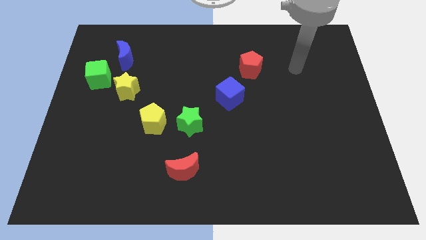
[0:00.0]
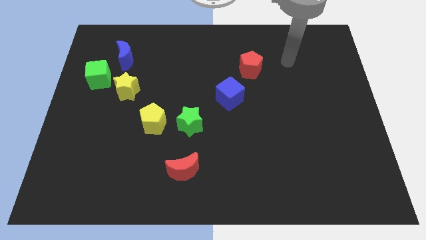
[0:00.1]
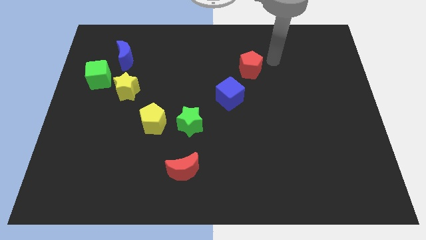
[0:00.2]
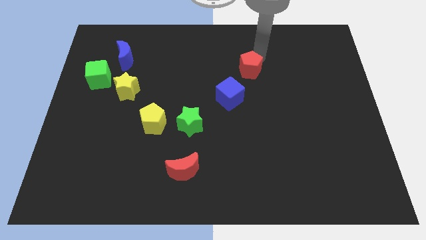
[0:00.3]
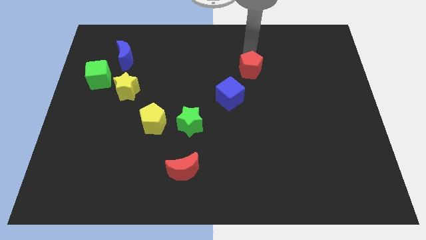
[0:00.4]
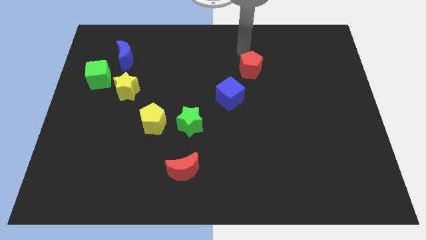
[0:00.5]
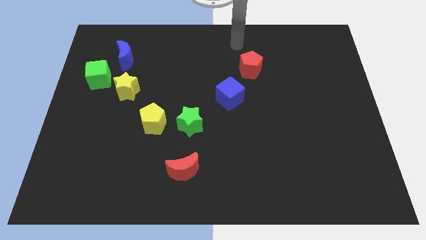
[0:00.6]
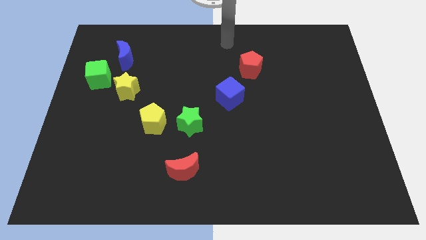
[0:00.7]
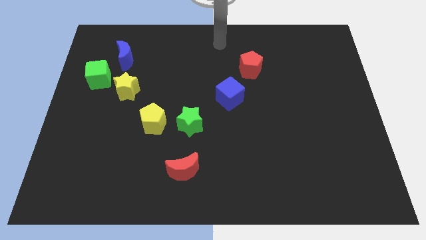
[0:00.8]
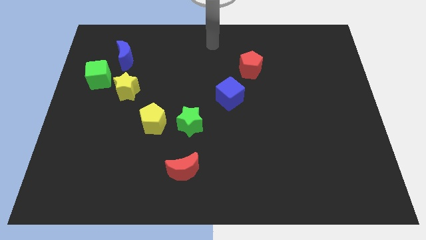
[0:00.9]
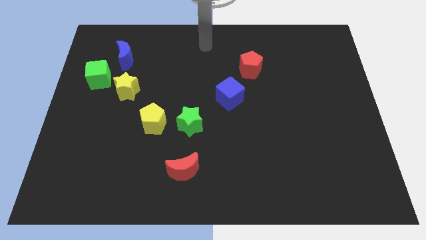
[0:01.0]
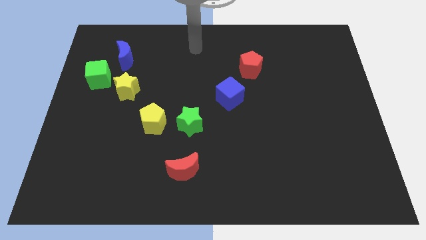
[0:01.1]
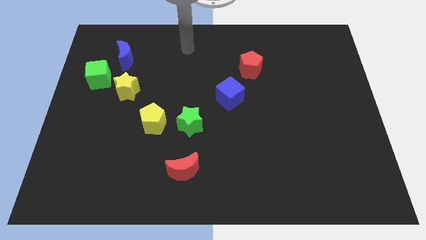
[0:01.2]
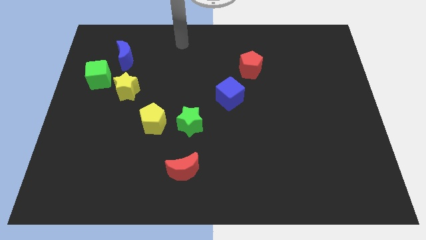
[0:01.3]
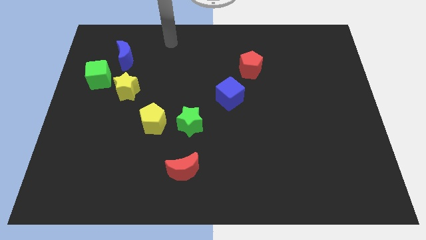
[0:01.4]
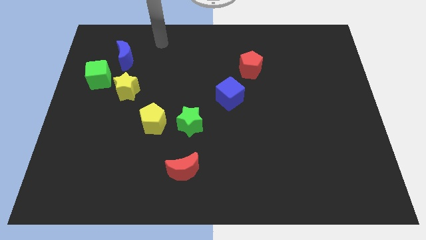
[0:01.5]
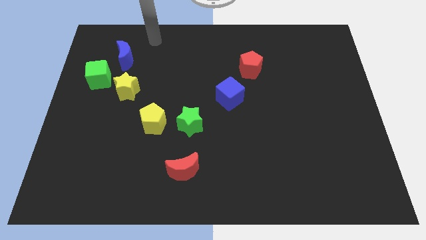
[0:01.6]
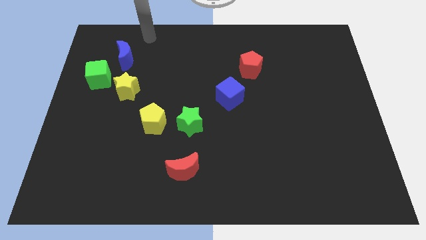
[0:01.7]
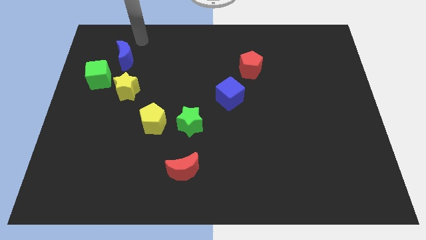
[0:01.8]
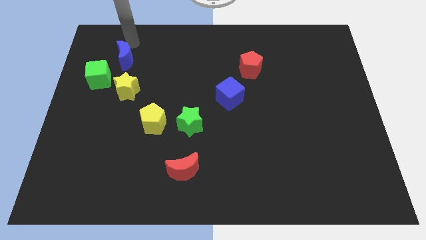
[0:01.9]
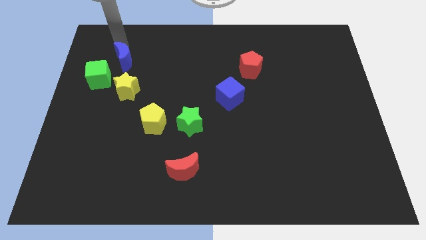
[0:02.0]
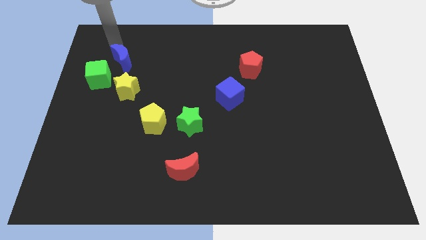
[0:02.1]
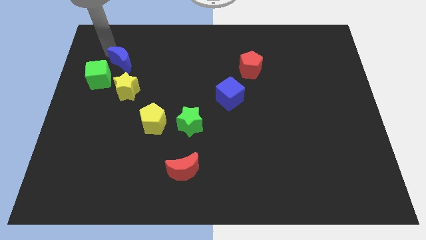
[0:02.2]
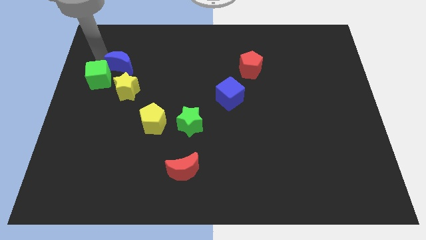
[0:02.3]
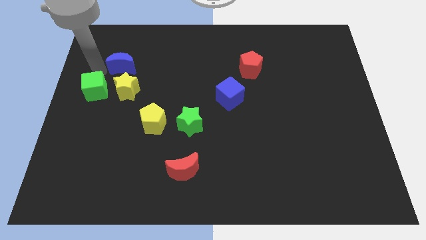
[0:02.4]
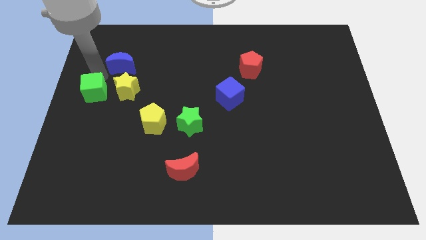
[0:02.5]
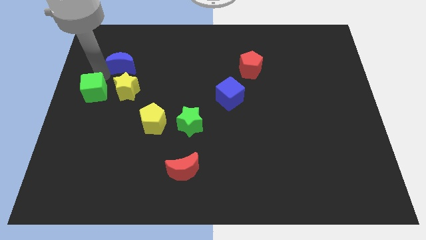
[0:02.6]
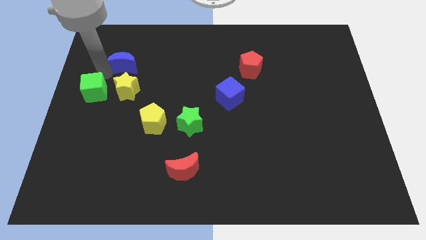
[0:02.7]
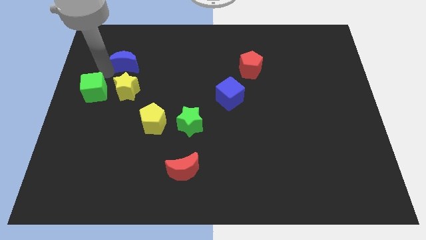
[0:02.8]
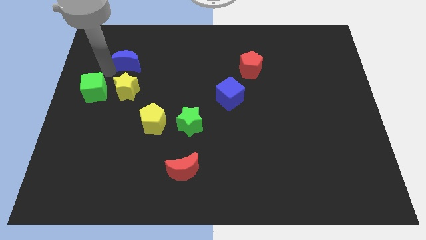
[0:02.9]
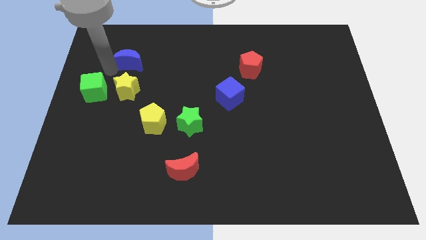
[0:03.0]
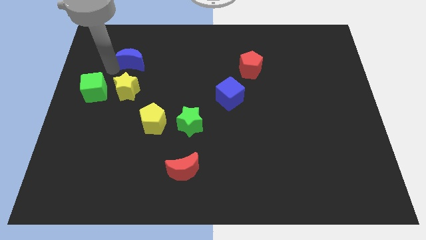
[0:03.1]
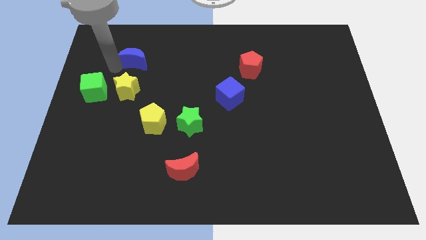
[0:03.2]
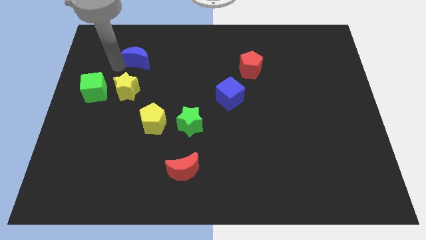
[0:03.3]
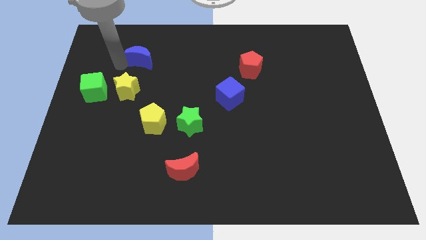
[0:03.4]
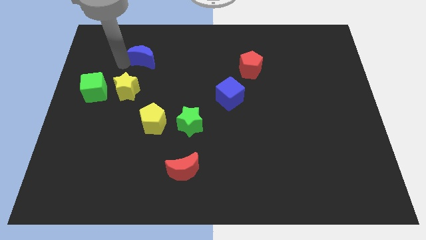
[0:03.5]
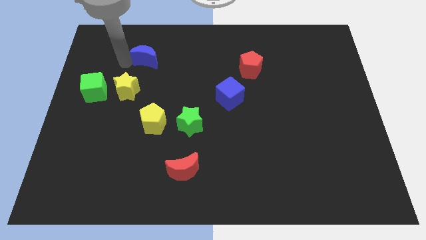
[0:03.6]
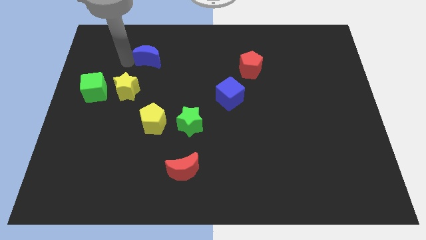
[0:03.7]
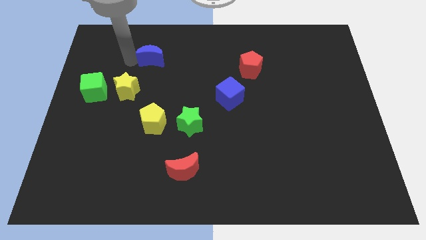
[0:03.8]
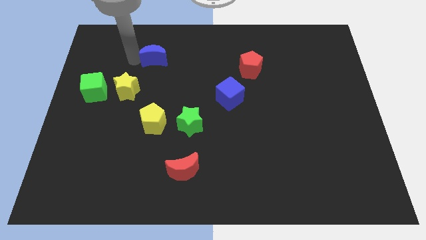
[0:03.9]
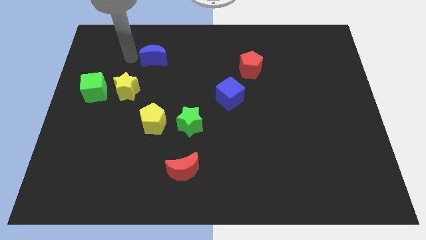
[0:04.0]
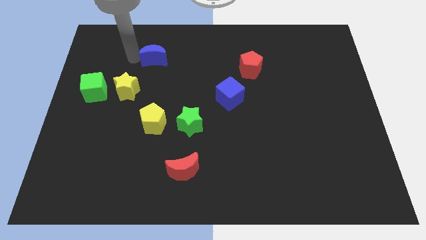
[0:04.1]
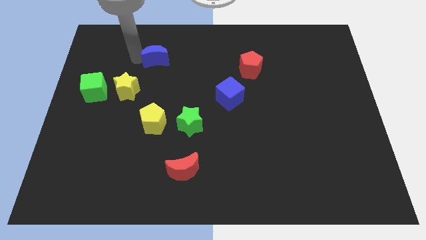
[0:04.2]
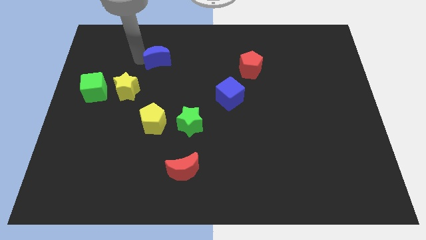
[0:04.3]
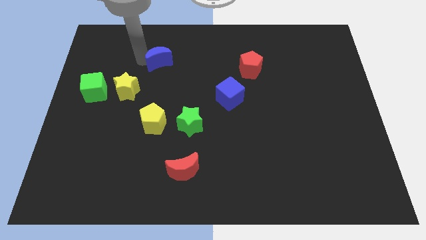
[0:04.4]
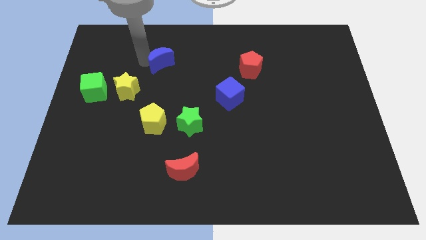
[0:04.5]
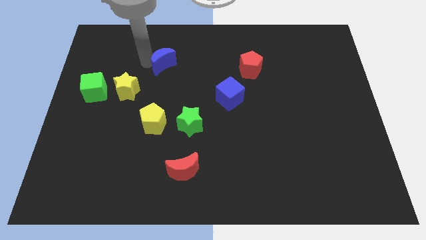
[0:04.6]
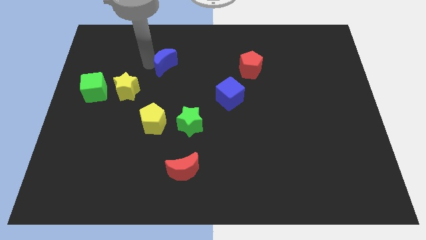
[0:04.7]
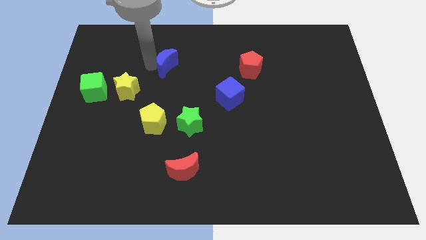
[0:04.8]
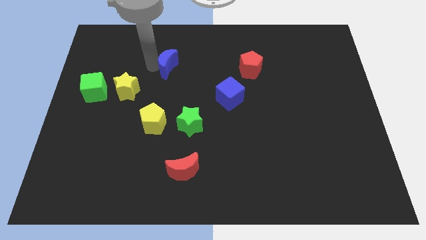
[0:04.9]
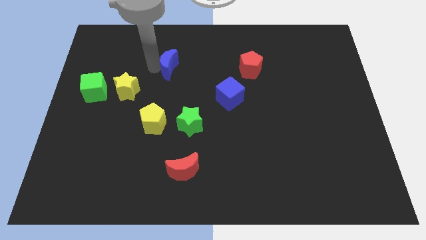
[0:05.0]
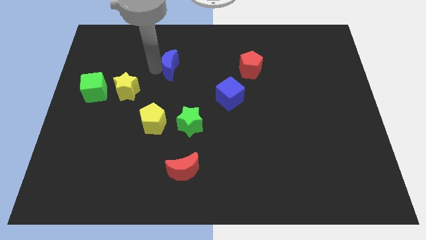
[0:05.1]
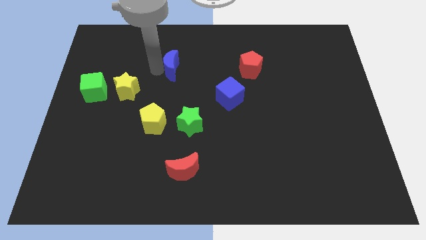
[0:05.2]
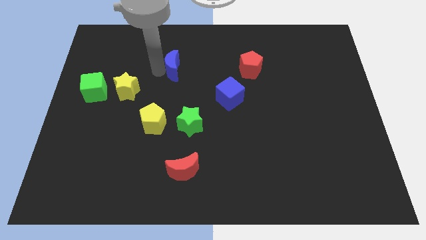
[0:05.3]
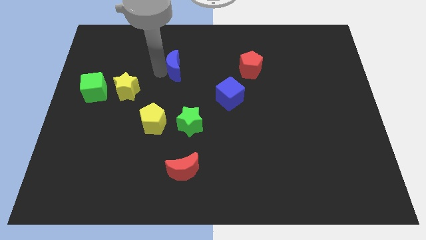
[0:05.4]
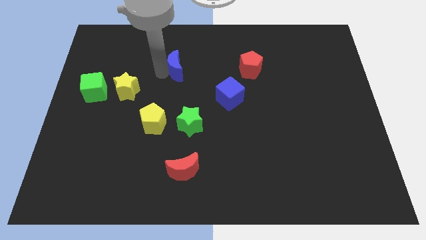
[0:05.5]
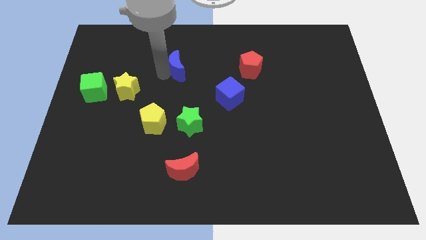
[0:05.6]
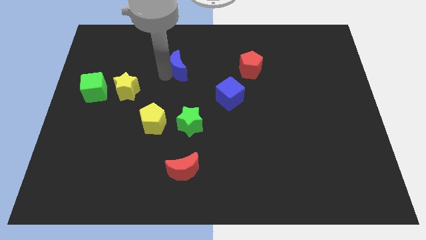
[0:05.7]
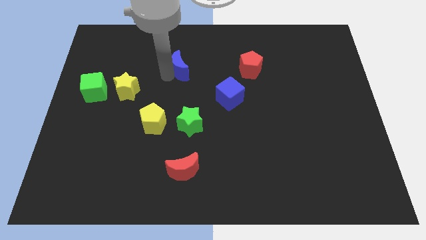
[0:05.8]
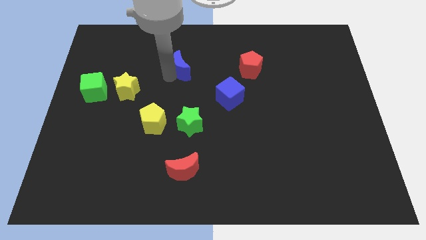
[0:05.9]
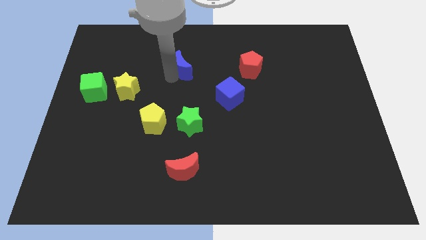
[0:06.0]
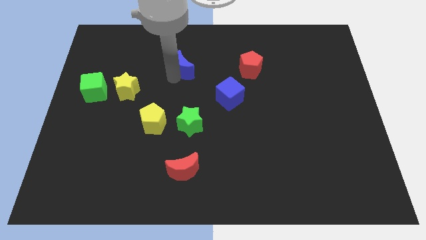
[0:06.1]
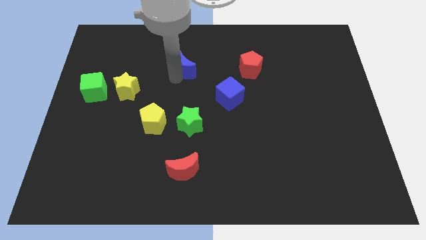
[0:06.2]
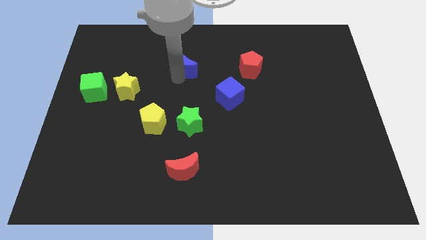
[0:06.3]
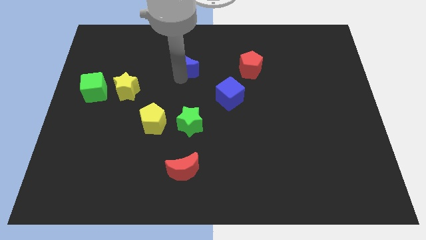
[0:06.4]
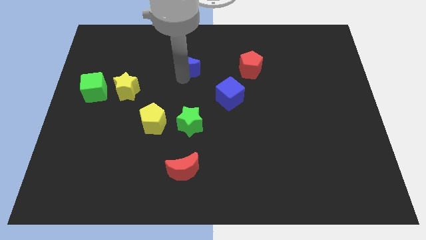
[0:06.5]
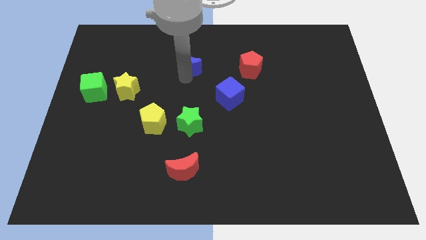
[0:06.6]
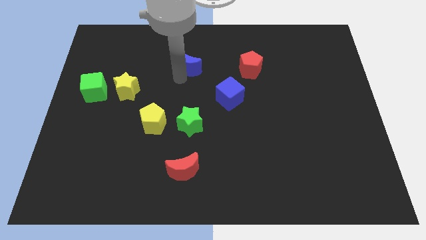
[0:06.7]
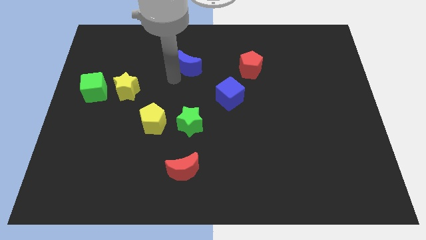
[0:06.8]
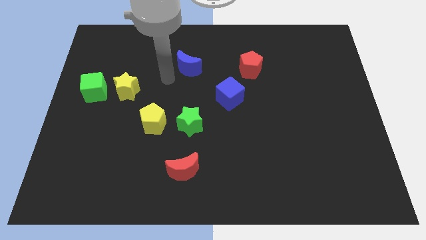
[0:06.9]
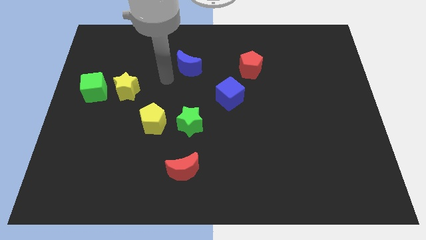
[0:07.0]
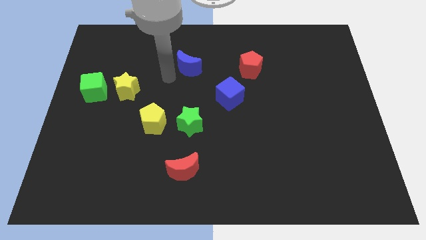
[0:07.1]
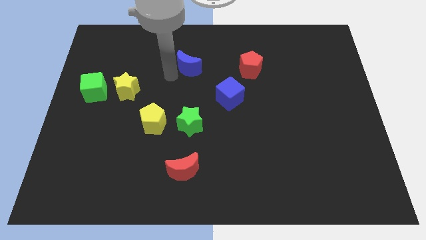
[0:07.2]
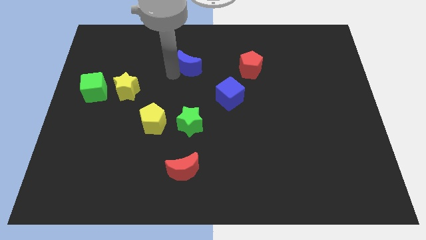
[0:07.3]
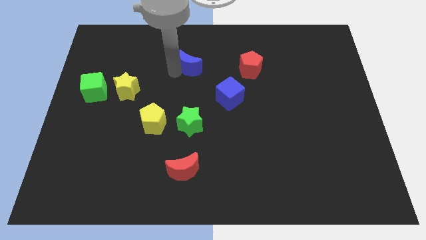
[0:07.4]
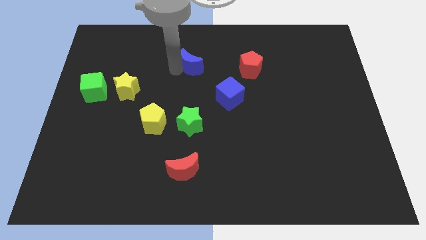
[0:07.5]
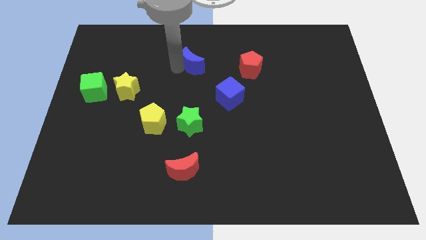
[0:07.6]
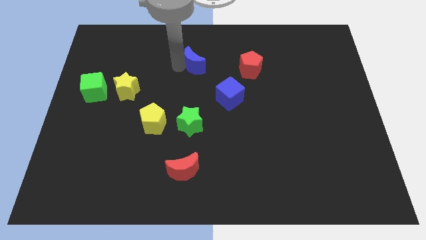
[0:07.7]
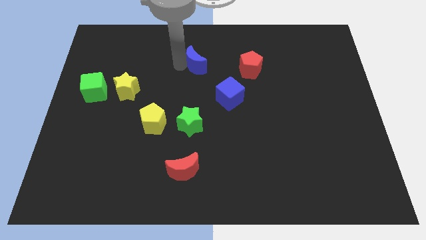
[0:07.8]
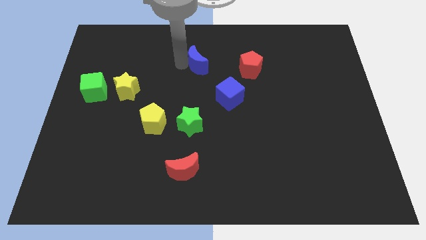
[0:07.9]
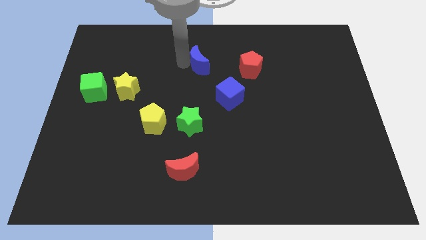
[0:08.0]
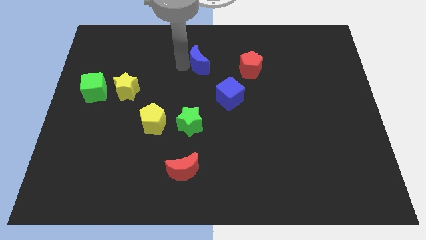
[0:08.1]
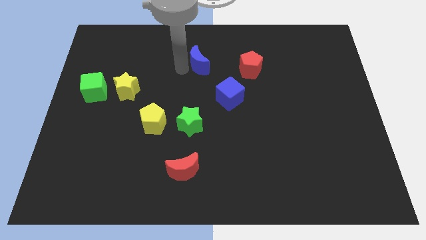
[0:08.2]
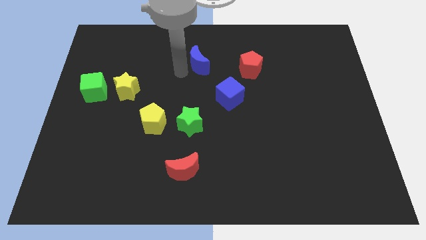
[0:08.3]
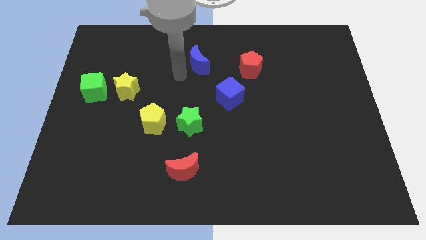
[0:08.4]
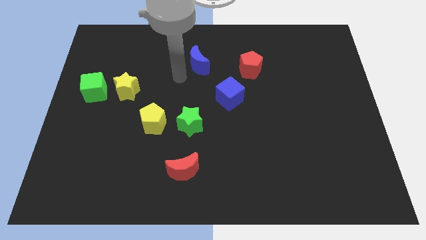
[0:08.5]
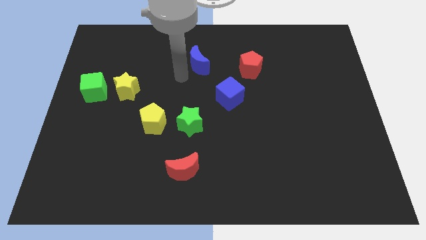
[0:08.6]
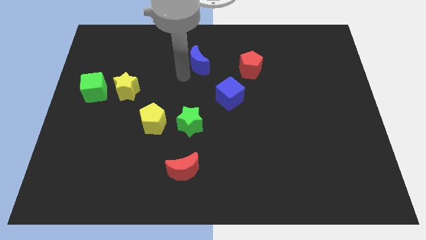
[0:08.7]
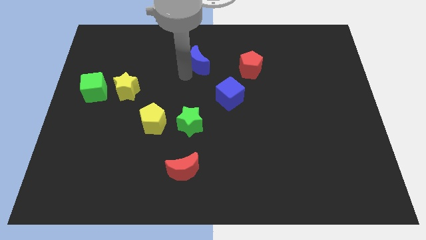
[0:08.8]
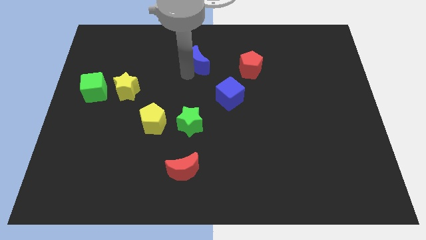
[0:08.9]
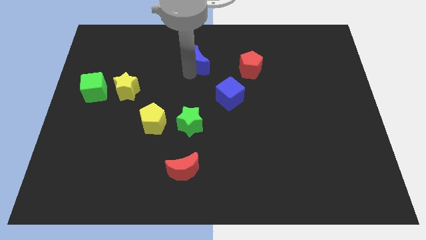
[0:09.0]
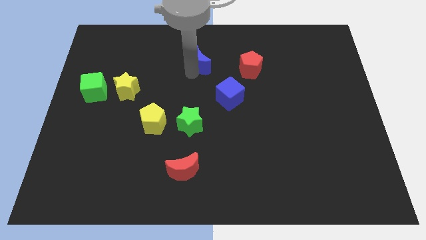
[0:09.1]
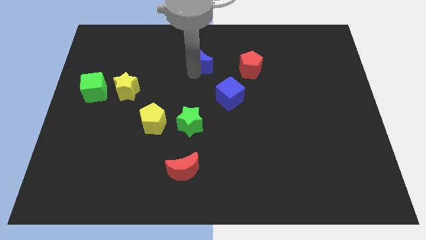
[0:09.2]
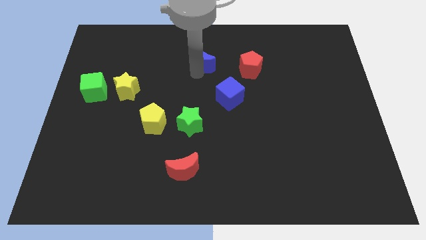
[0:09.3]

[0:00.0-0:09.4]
move the blue moon right
